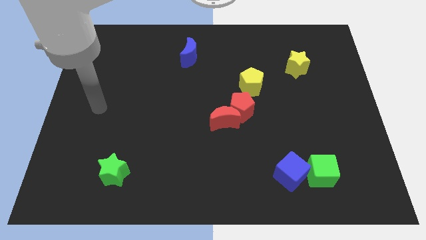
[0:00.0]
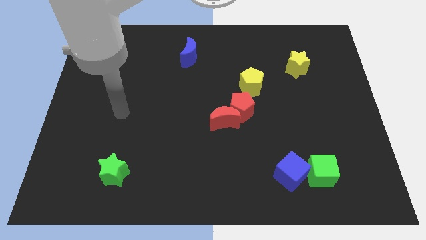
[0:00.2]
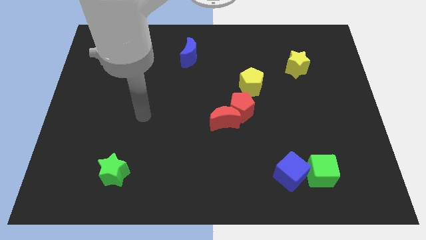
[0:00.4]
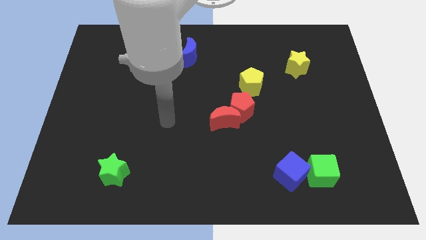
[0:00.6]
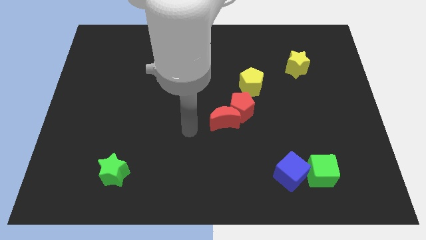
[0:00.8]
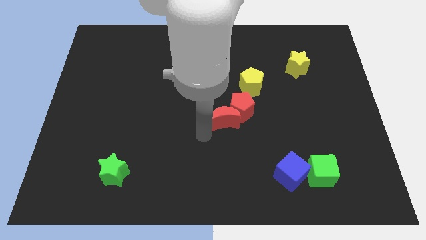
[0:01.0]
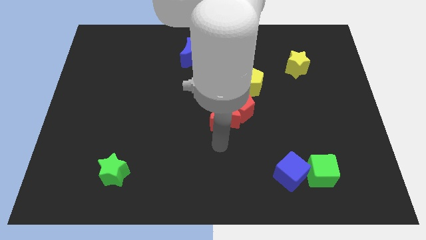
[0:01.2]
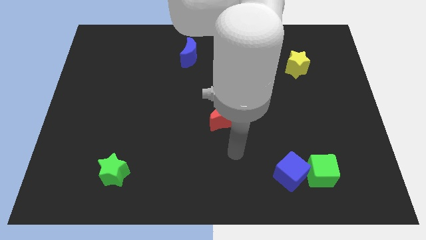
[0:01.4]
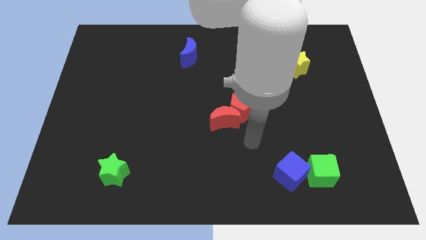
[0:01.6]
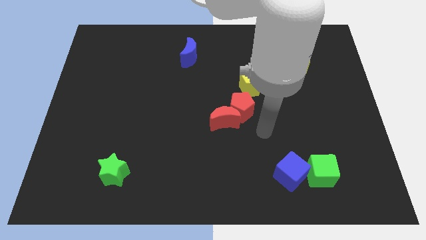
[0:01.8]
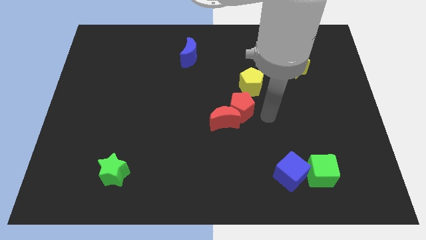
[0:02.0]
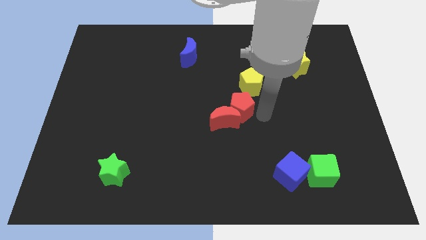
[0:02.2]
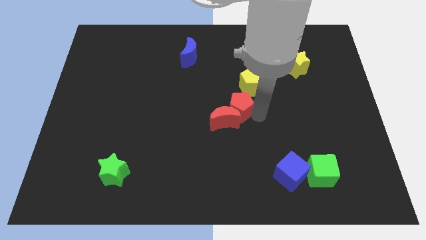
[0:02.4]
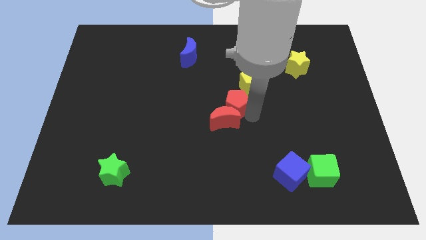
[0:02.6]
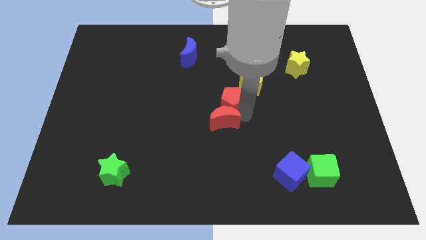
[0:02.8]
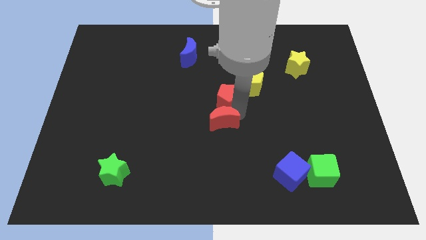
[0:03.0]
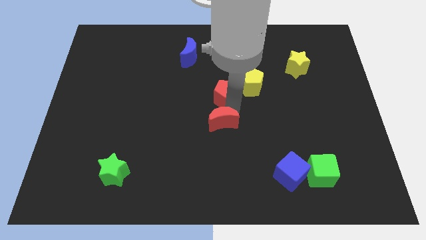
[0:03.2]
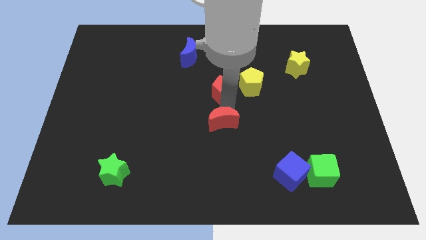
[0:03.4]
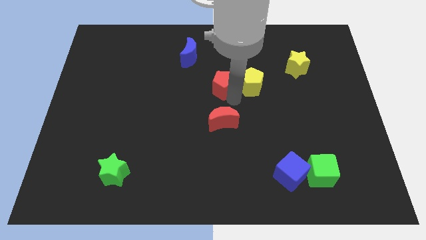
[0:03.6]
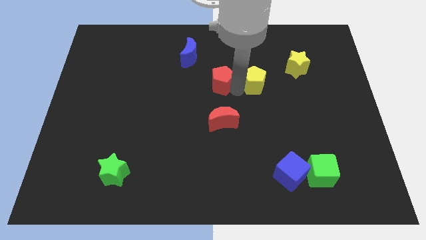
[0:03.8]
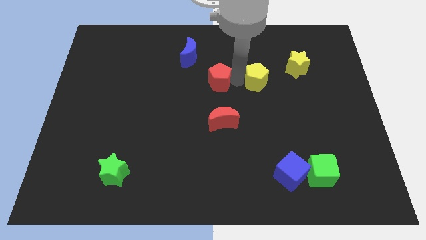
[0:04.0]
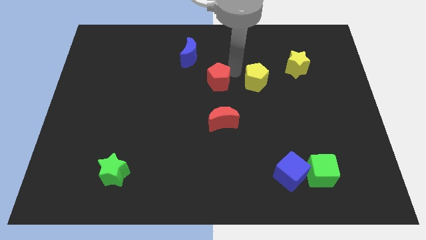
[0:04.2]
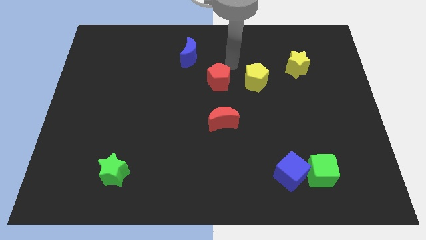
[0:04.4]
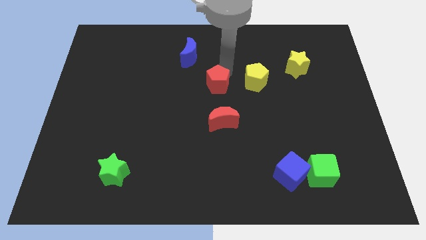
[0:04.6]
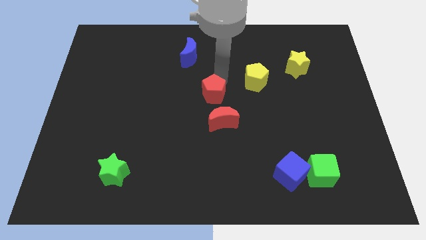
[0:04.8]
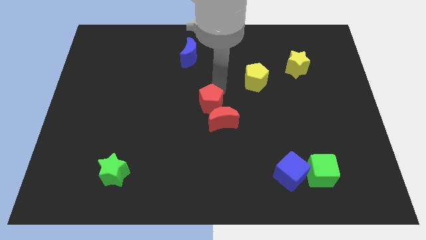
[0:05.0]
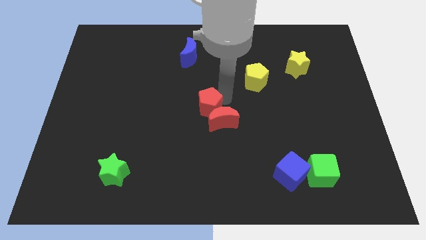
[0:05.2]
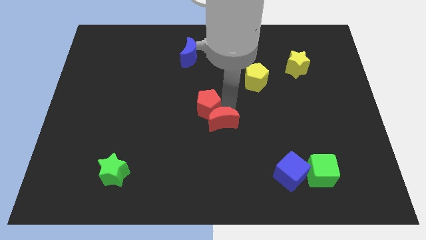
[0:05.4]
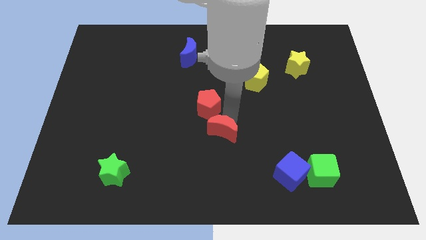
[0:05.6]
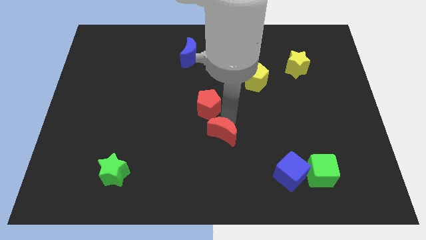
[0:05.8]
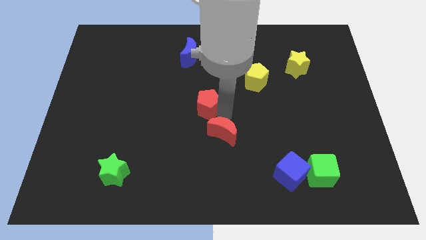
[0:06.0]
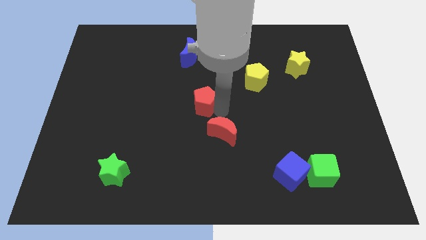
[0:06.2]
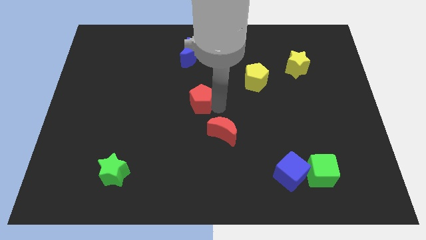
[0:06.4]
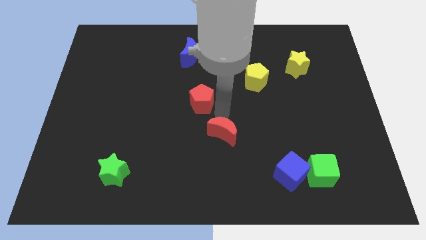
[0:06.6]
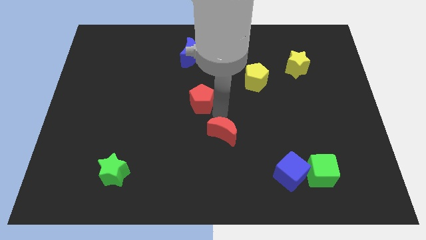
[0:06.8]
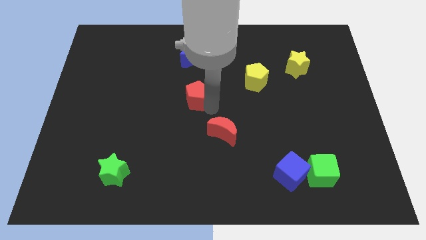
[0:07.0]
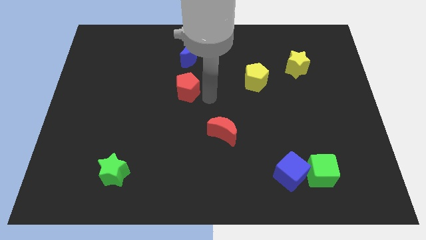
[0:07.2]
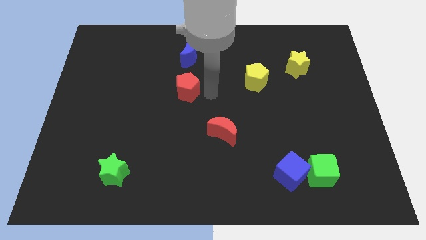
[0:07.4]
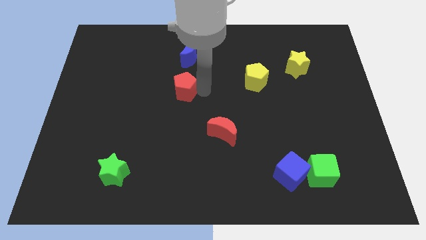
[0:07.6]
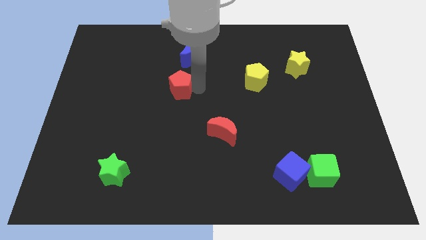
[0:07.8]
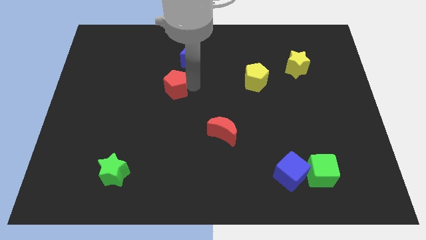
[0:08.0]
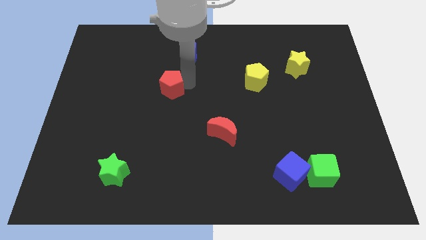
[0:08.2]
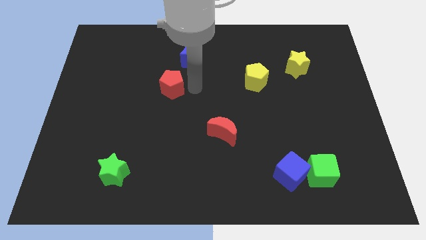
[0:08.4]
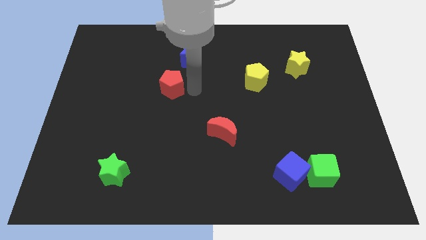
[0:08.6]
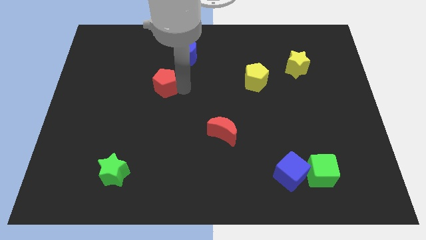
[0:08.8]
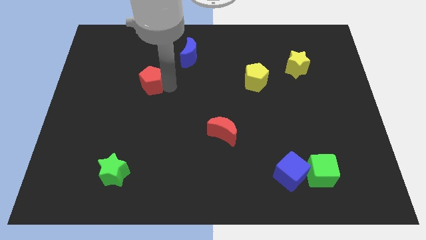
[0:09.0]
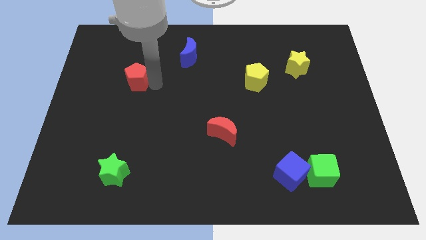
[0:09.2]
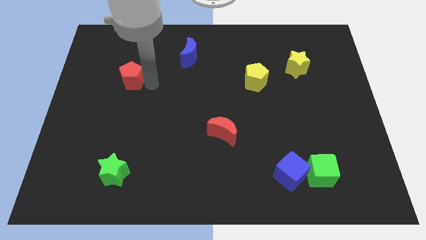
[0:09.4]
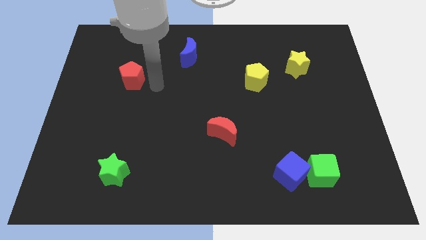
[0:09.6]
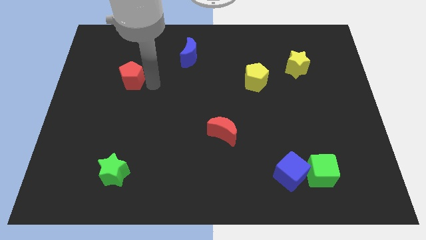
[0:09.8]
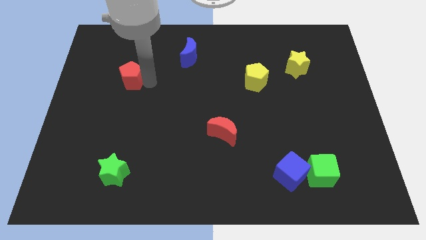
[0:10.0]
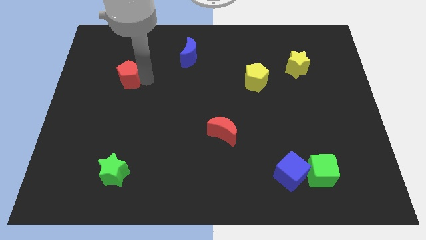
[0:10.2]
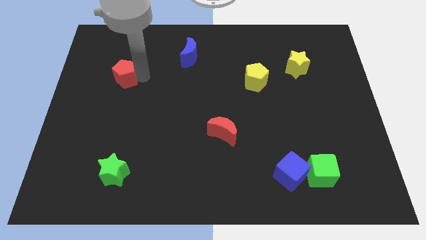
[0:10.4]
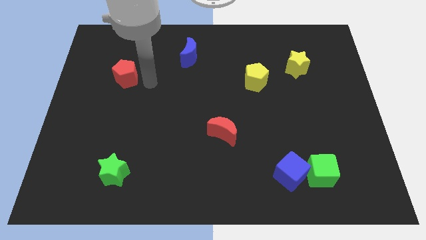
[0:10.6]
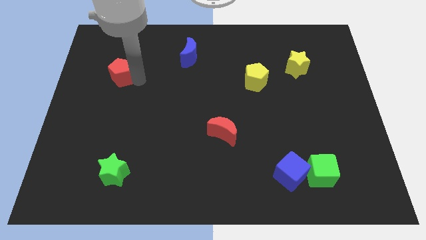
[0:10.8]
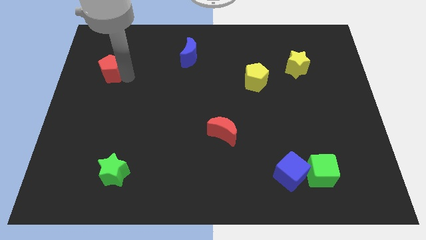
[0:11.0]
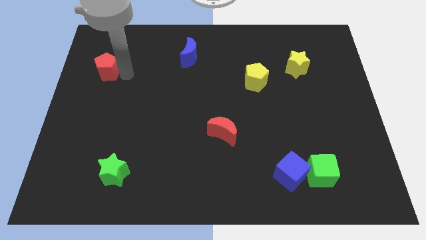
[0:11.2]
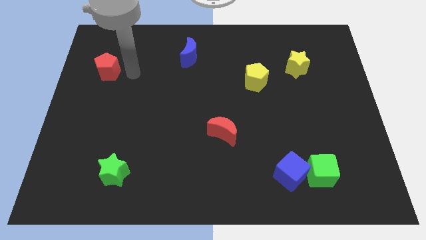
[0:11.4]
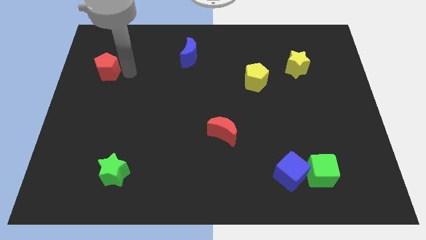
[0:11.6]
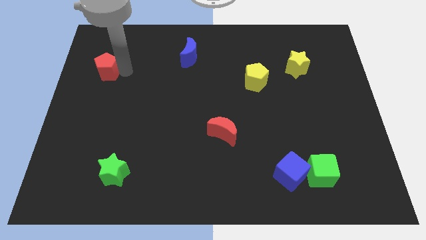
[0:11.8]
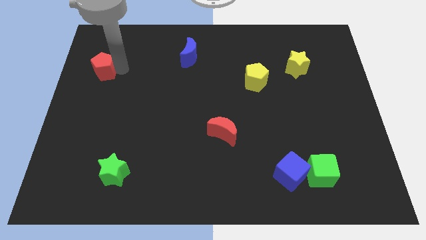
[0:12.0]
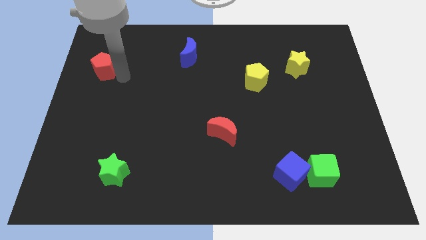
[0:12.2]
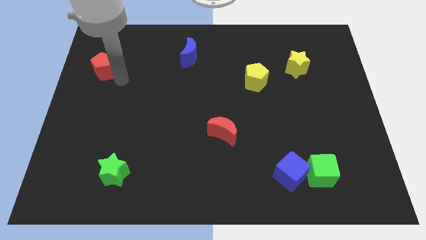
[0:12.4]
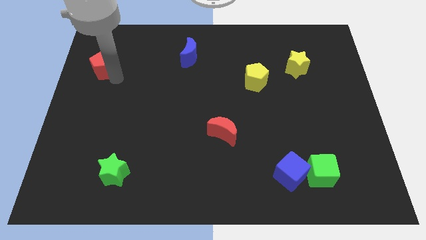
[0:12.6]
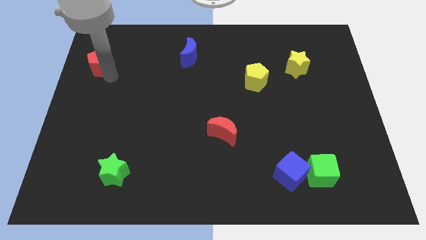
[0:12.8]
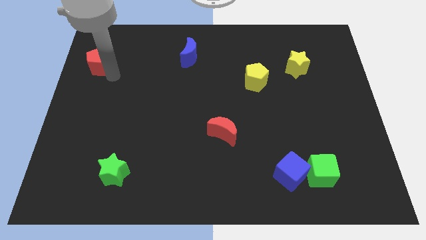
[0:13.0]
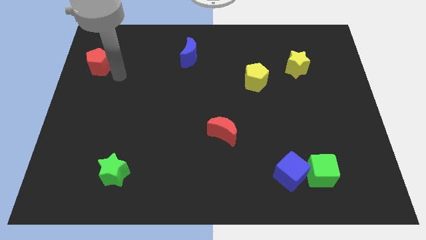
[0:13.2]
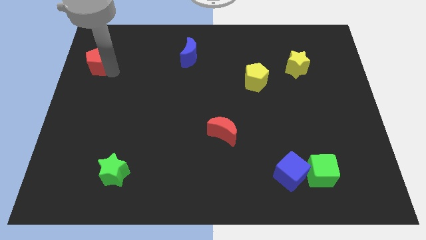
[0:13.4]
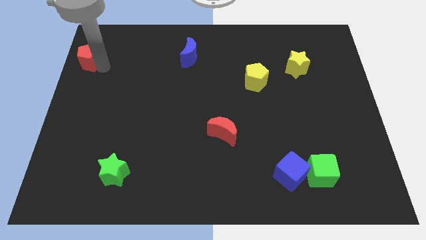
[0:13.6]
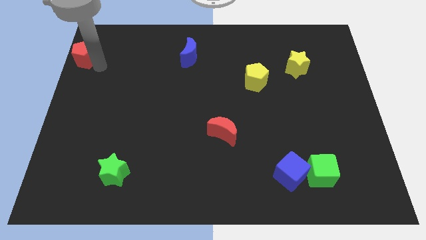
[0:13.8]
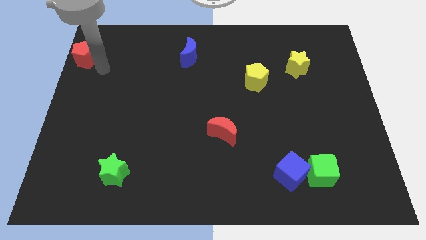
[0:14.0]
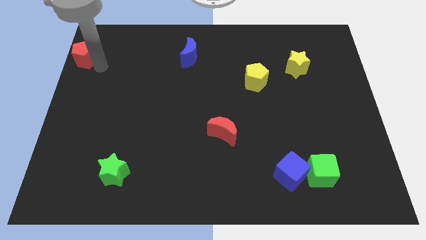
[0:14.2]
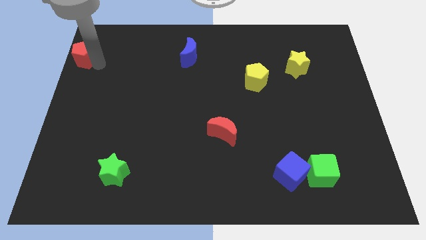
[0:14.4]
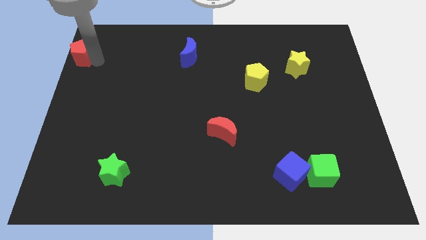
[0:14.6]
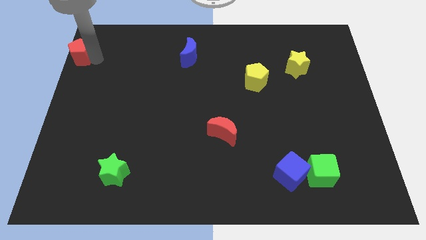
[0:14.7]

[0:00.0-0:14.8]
move the red pentagon to the top left corner
